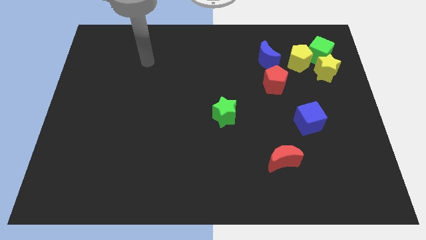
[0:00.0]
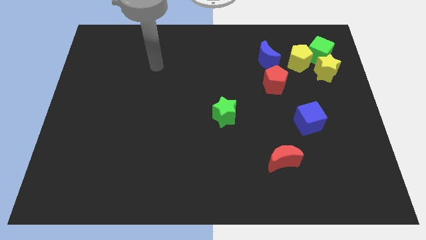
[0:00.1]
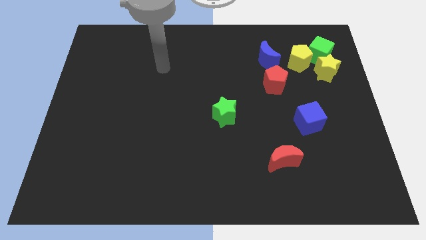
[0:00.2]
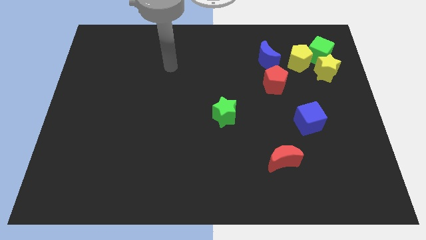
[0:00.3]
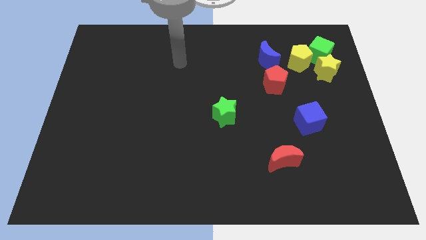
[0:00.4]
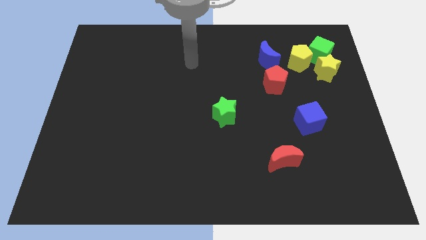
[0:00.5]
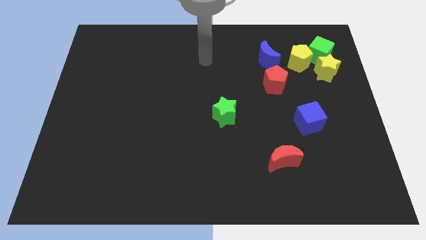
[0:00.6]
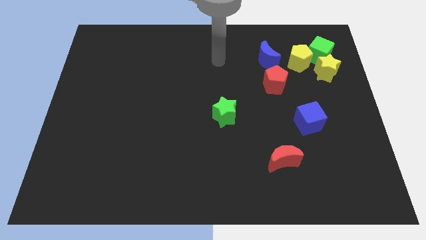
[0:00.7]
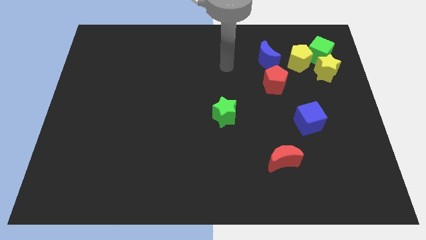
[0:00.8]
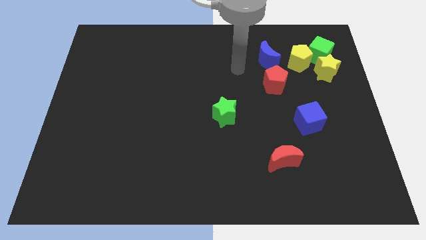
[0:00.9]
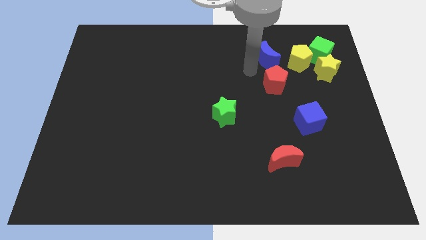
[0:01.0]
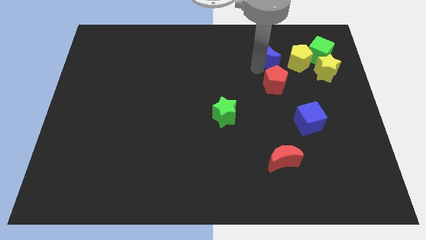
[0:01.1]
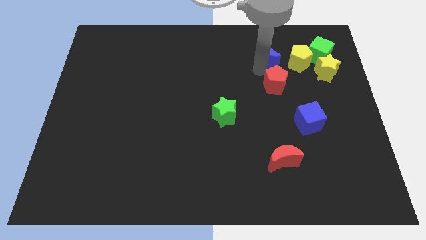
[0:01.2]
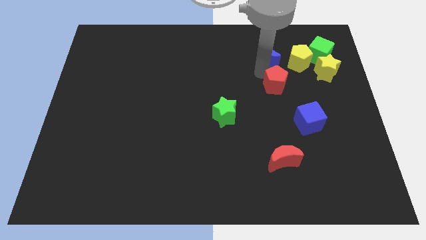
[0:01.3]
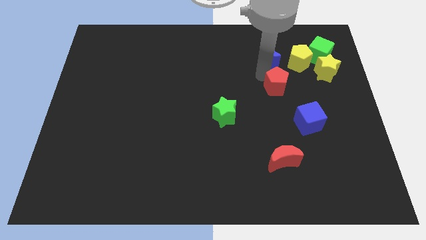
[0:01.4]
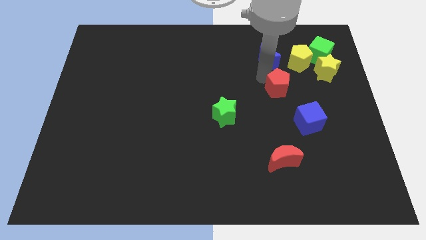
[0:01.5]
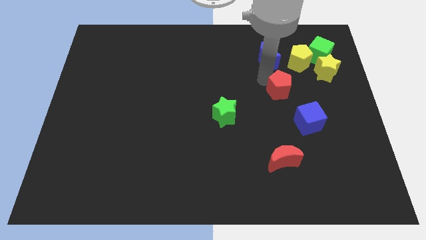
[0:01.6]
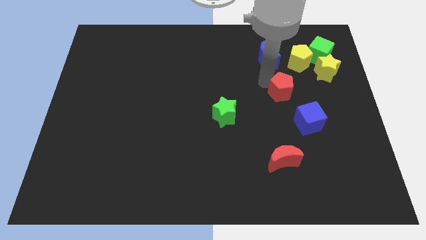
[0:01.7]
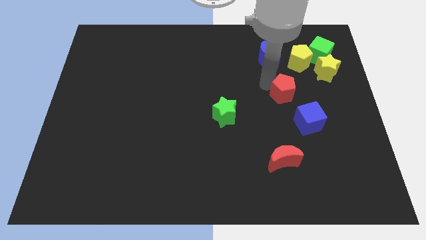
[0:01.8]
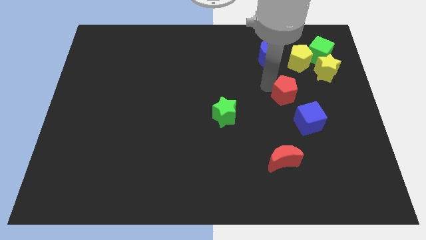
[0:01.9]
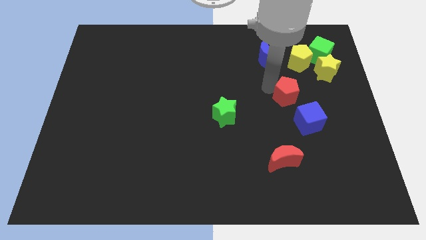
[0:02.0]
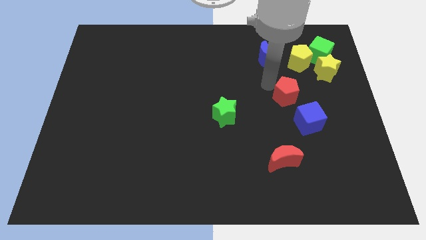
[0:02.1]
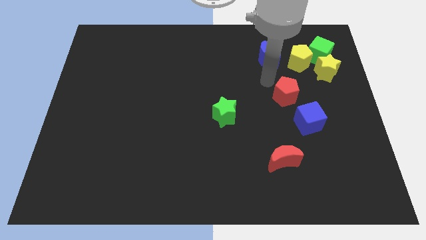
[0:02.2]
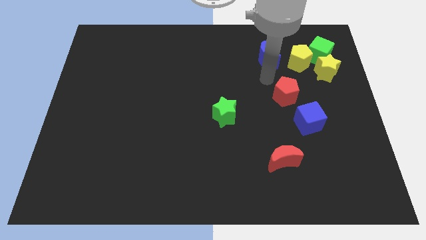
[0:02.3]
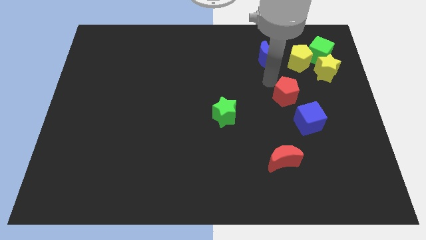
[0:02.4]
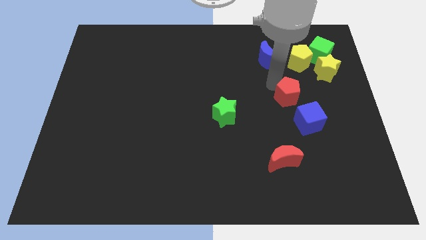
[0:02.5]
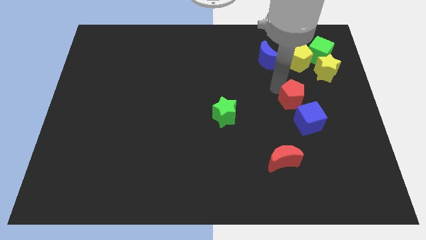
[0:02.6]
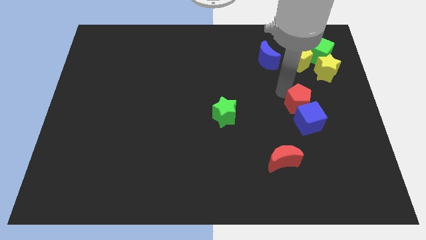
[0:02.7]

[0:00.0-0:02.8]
push the red pentagon towards the blue cube

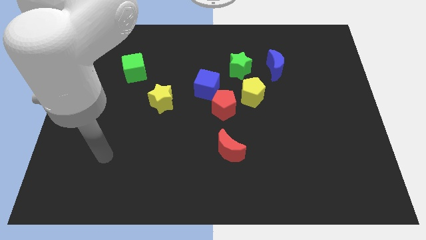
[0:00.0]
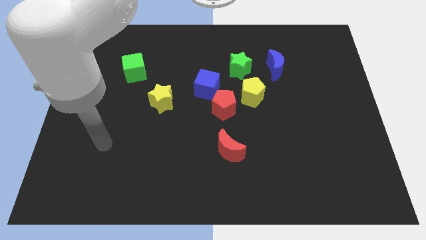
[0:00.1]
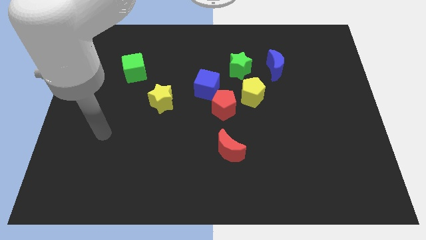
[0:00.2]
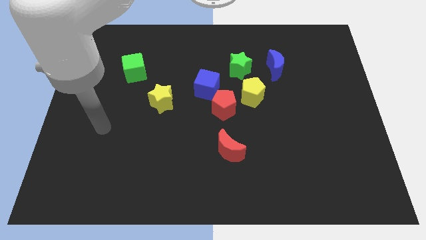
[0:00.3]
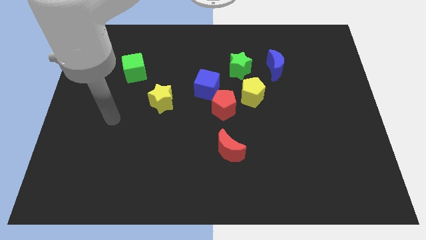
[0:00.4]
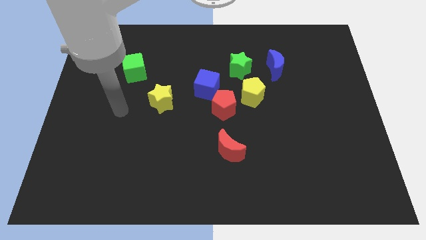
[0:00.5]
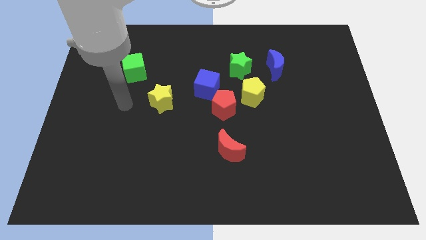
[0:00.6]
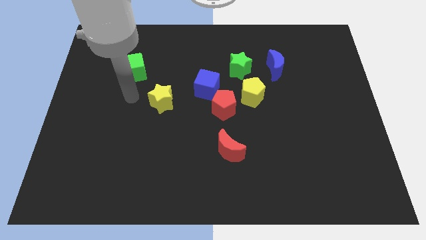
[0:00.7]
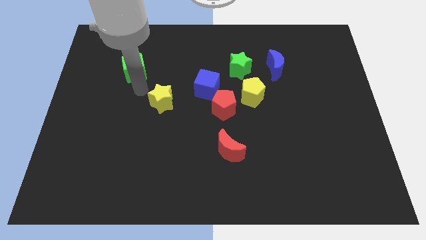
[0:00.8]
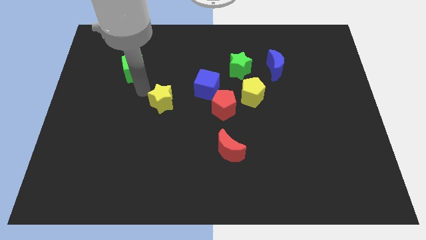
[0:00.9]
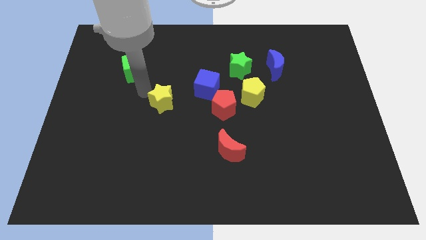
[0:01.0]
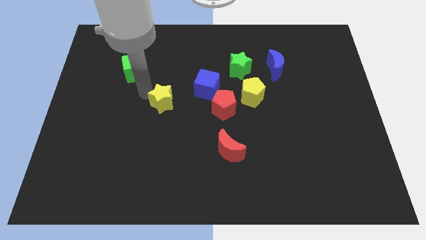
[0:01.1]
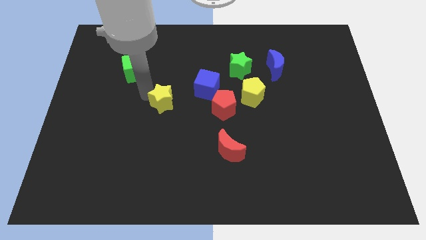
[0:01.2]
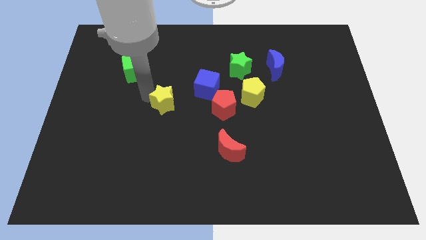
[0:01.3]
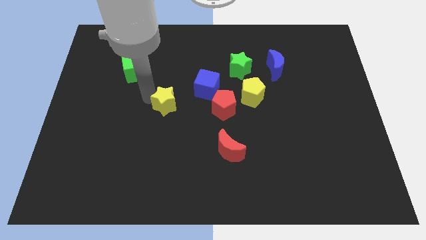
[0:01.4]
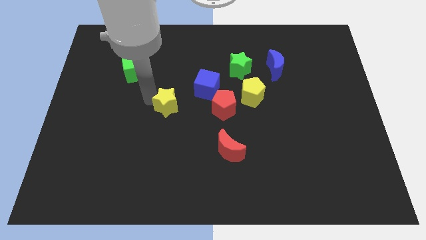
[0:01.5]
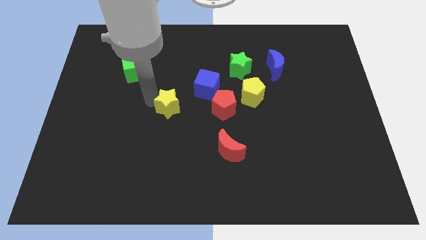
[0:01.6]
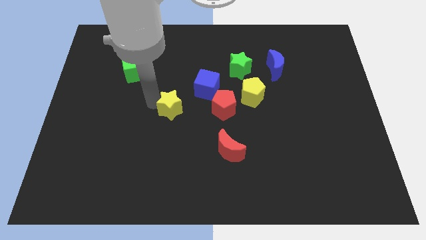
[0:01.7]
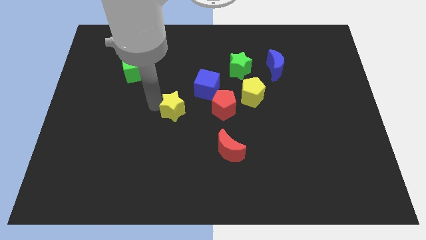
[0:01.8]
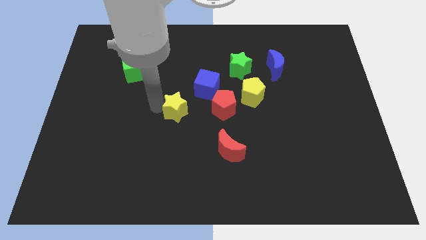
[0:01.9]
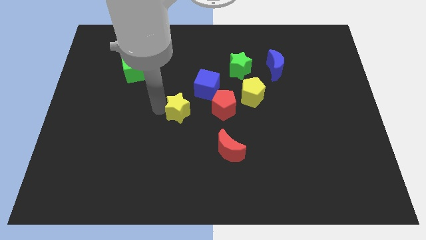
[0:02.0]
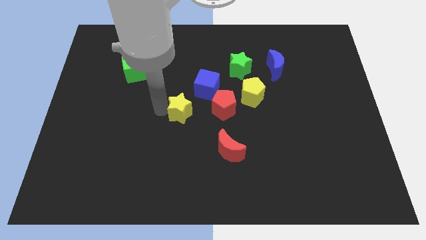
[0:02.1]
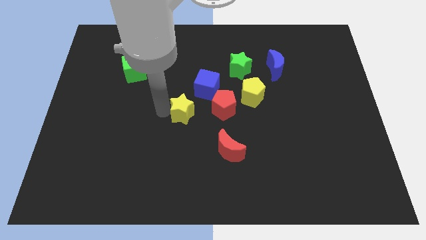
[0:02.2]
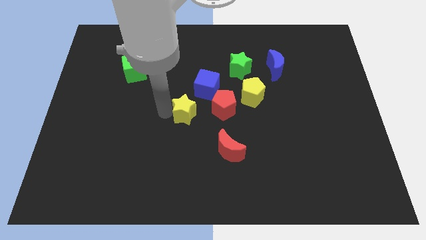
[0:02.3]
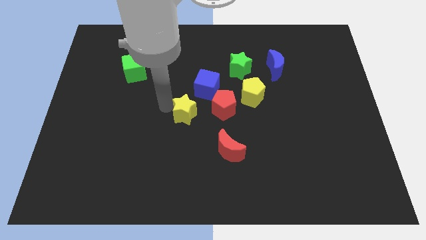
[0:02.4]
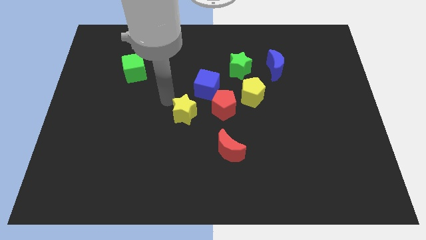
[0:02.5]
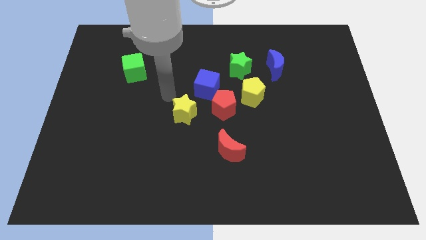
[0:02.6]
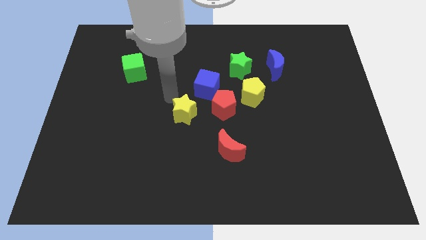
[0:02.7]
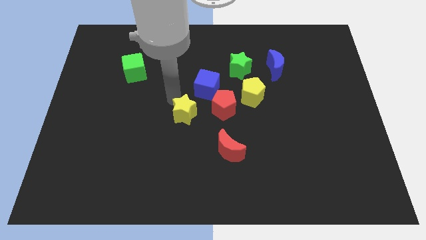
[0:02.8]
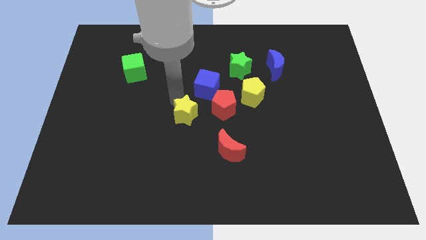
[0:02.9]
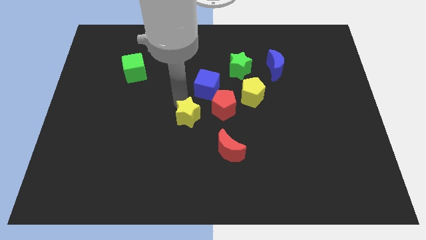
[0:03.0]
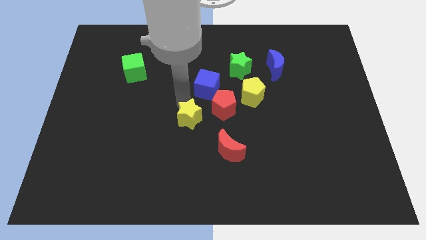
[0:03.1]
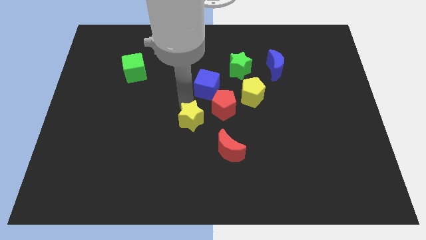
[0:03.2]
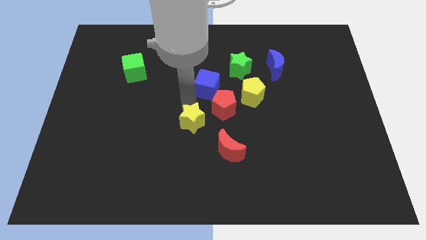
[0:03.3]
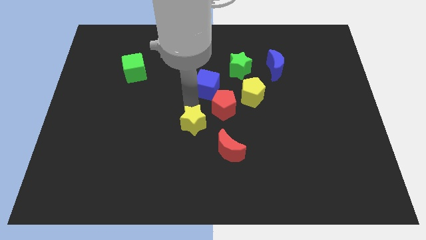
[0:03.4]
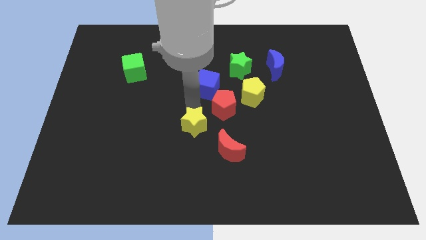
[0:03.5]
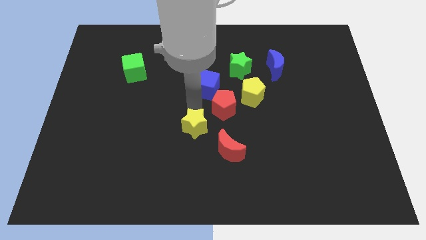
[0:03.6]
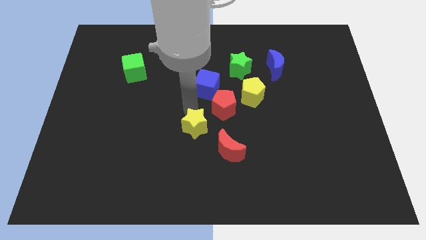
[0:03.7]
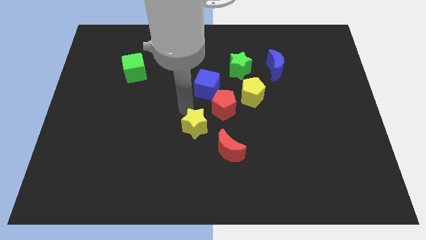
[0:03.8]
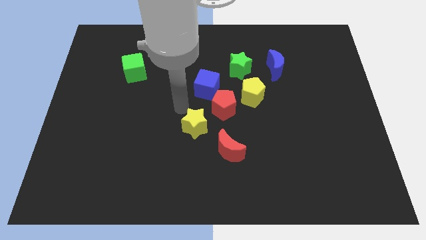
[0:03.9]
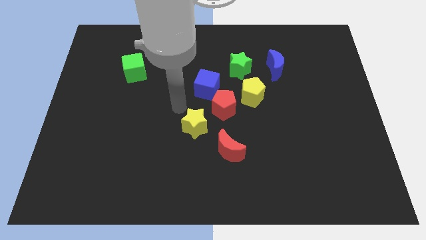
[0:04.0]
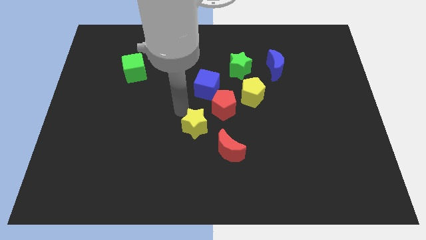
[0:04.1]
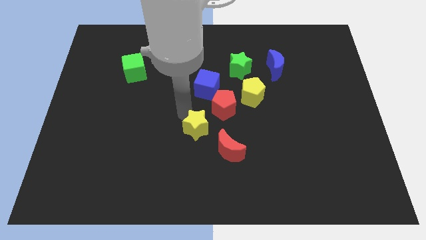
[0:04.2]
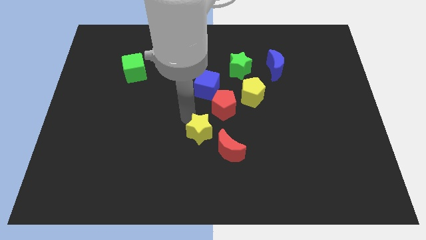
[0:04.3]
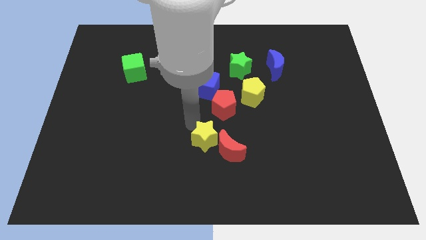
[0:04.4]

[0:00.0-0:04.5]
push the yellow star next to the red moon

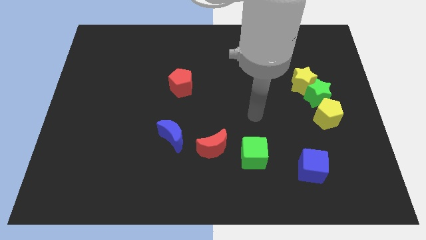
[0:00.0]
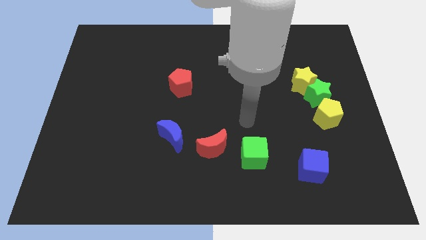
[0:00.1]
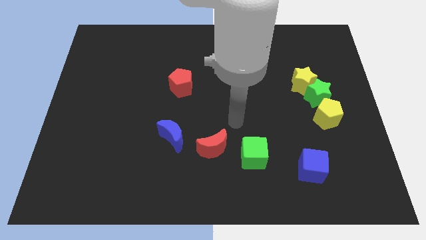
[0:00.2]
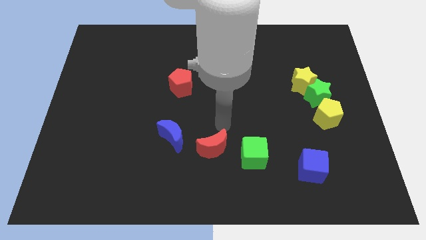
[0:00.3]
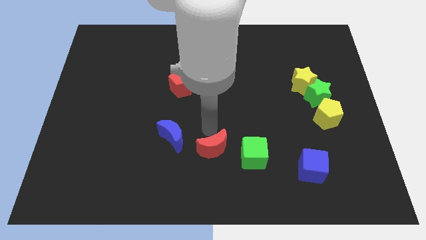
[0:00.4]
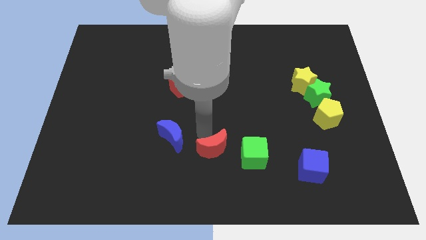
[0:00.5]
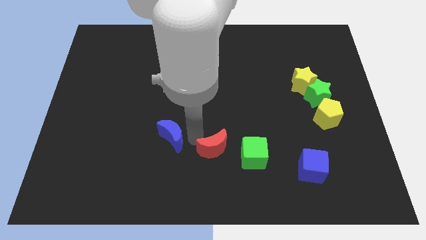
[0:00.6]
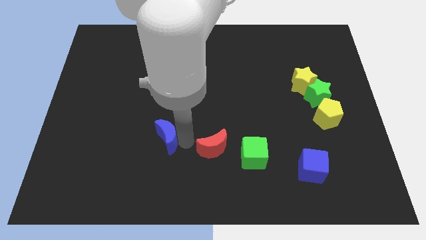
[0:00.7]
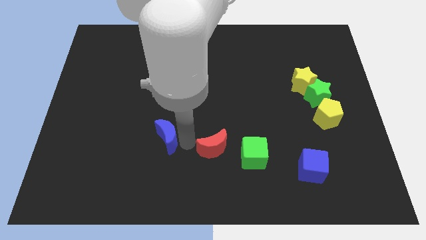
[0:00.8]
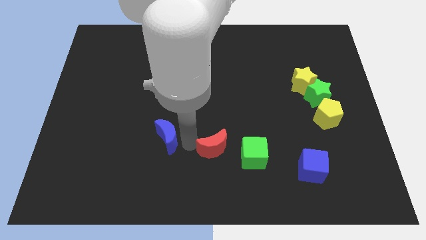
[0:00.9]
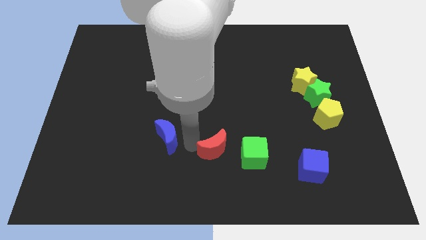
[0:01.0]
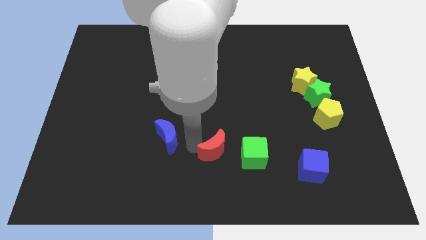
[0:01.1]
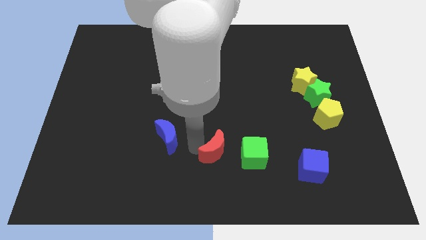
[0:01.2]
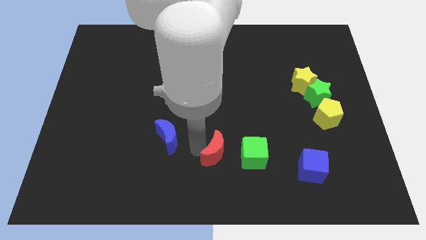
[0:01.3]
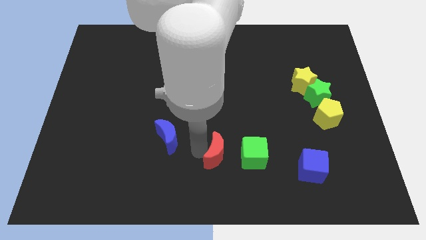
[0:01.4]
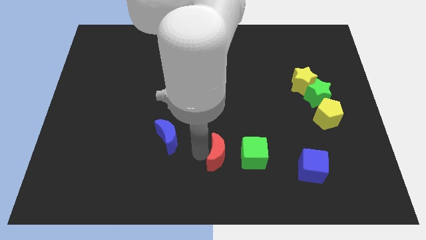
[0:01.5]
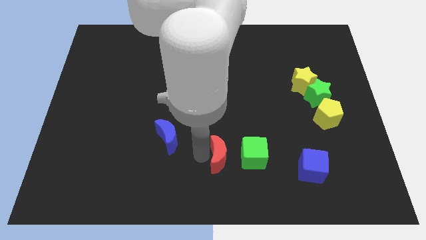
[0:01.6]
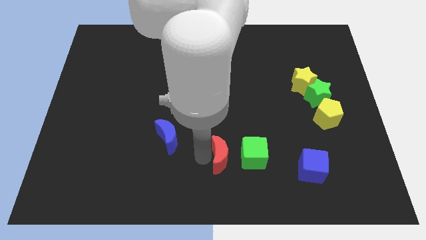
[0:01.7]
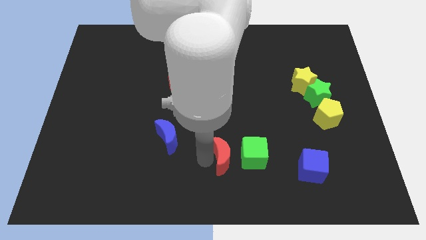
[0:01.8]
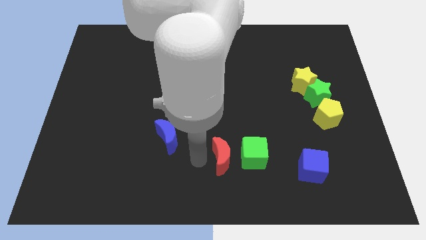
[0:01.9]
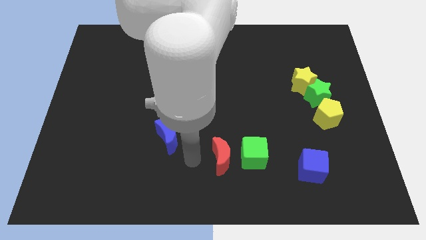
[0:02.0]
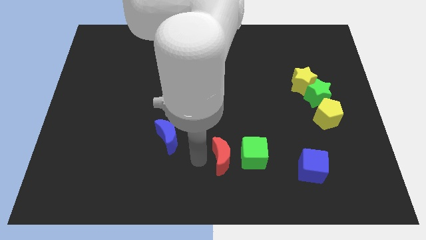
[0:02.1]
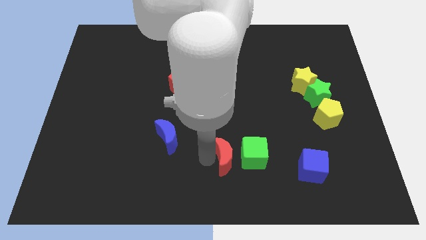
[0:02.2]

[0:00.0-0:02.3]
move the red moon towards the green cube
